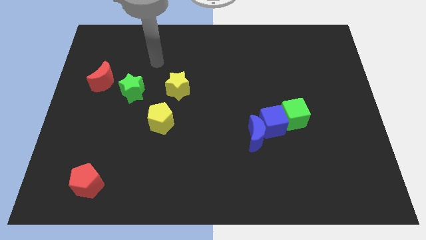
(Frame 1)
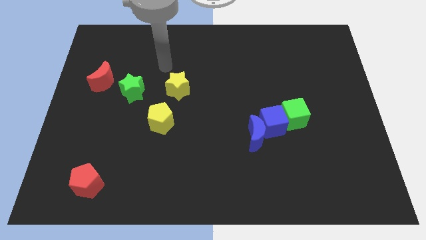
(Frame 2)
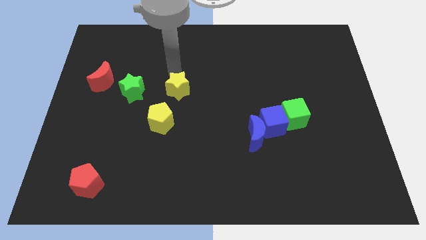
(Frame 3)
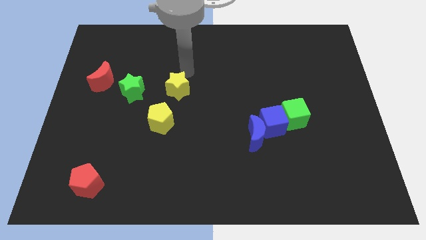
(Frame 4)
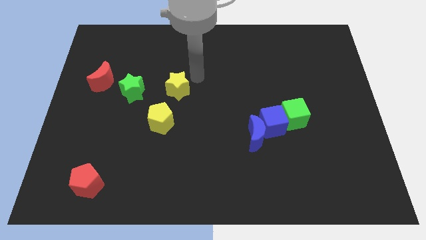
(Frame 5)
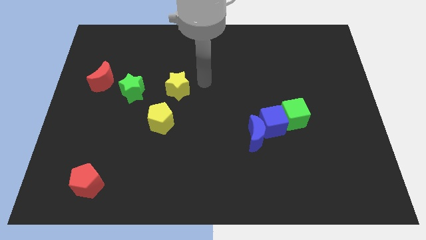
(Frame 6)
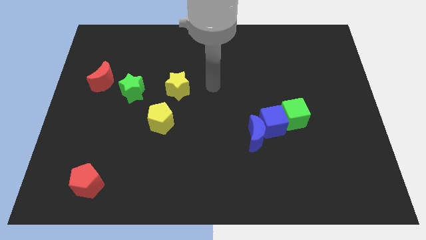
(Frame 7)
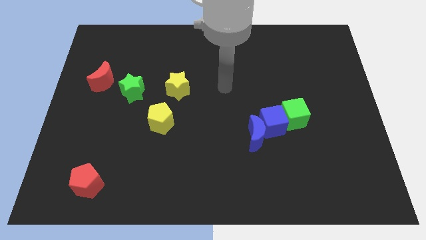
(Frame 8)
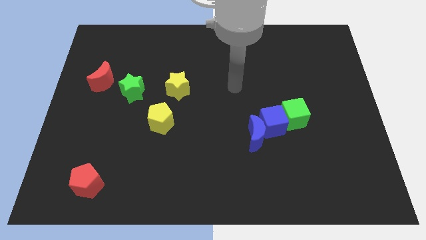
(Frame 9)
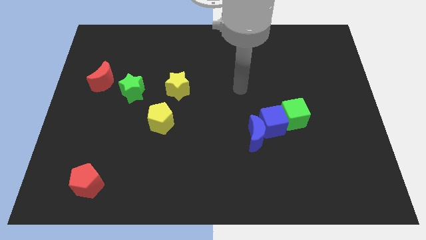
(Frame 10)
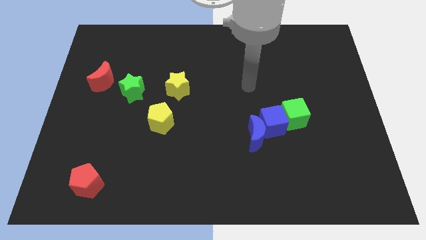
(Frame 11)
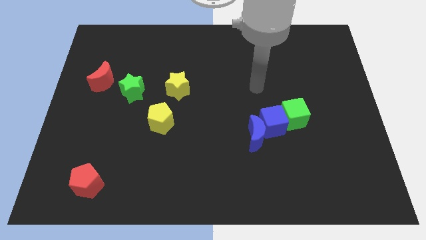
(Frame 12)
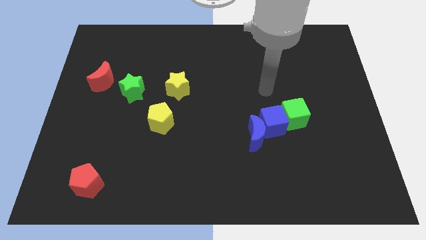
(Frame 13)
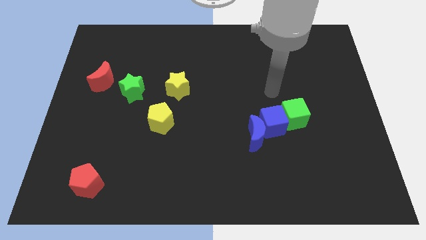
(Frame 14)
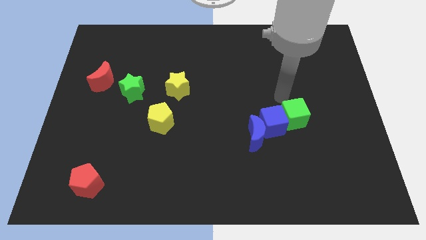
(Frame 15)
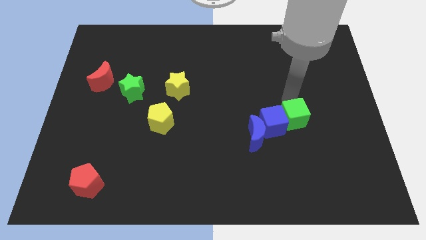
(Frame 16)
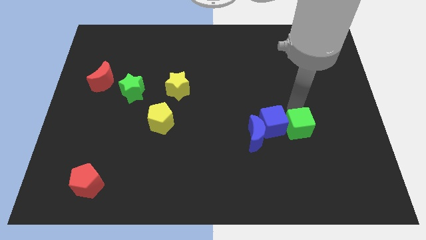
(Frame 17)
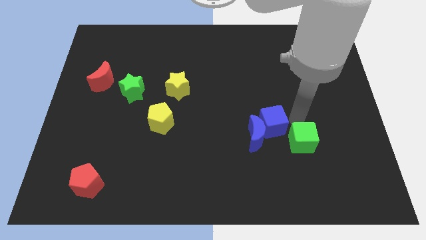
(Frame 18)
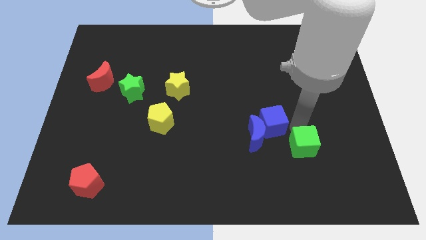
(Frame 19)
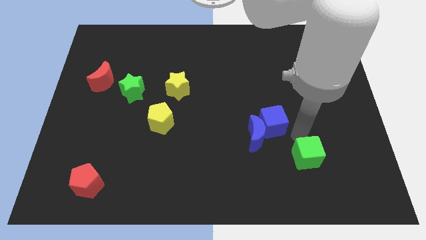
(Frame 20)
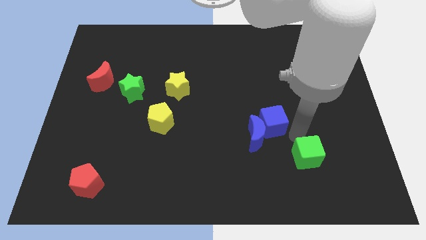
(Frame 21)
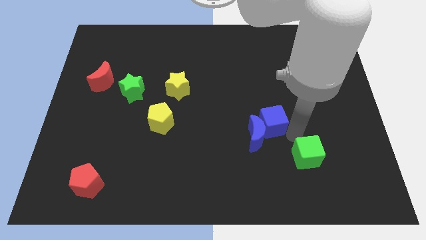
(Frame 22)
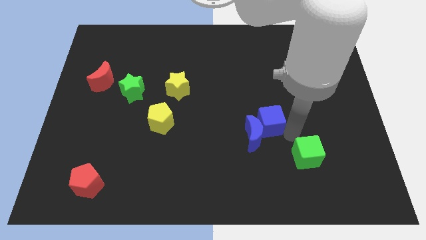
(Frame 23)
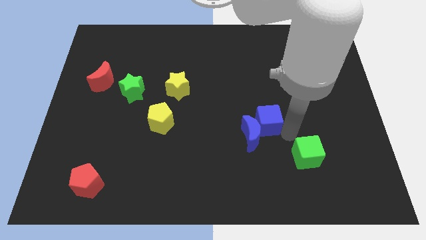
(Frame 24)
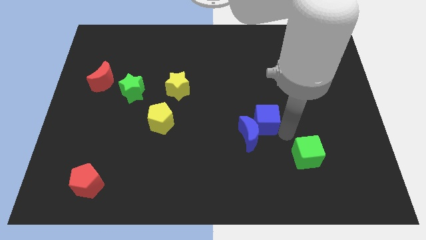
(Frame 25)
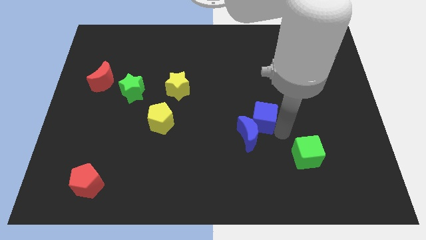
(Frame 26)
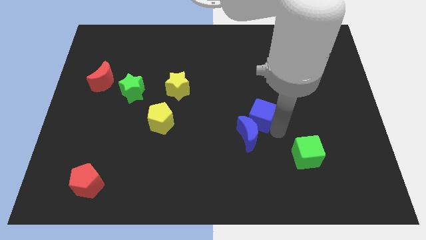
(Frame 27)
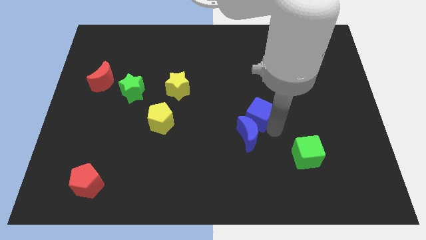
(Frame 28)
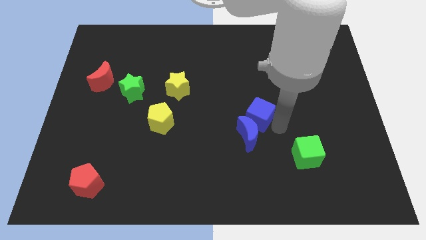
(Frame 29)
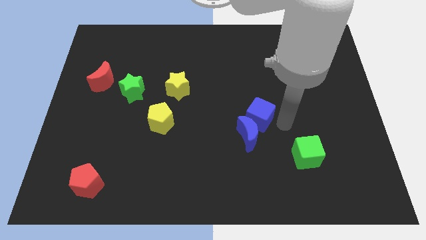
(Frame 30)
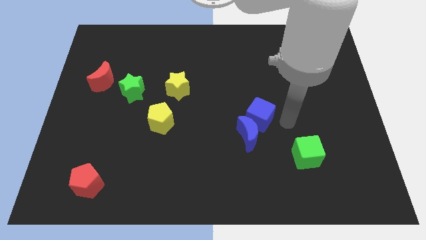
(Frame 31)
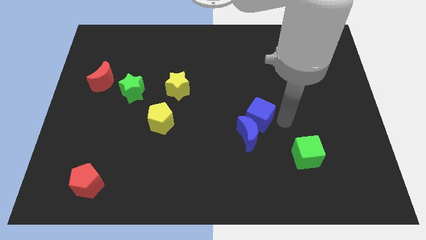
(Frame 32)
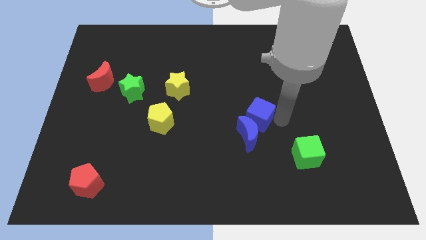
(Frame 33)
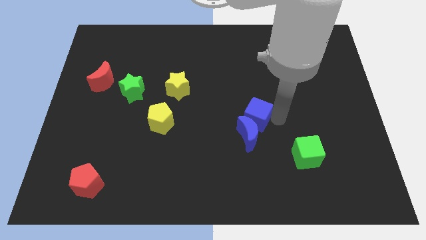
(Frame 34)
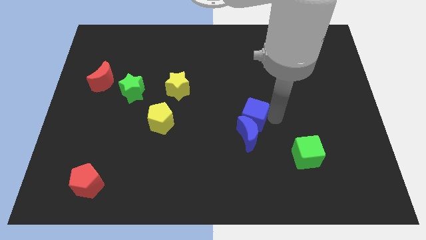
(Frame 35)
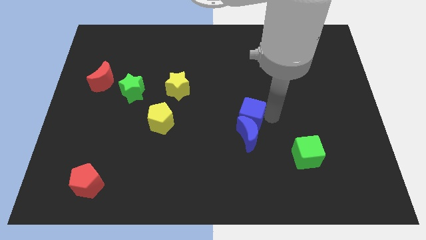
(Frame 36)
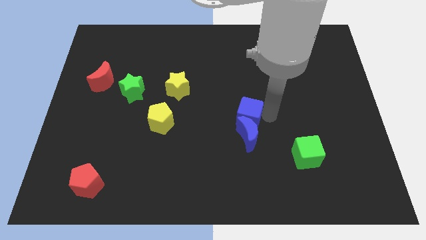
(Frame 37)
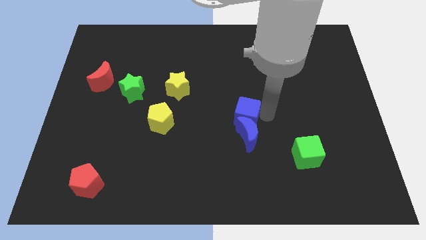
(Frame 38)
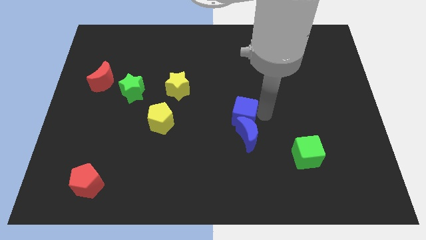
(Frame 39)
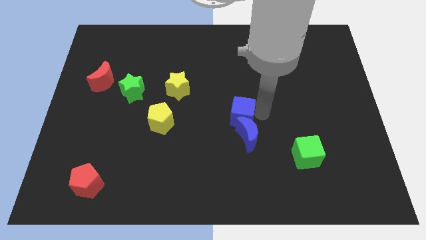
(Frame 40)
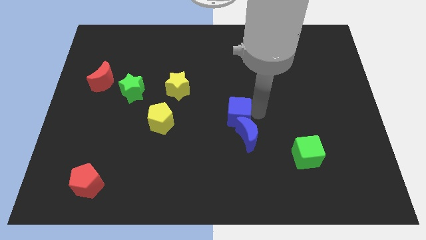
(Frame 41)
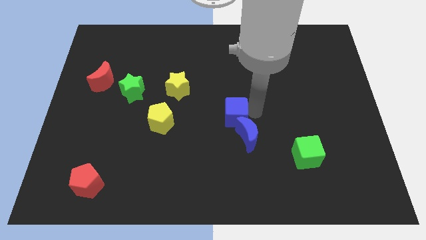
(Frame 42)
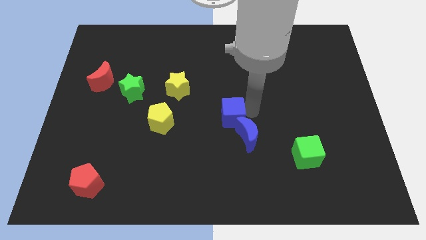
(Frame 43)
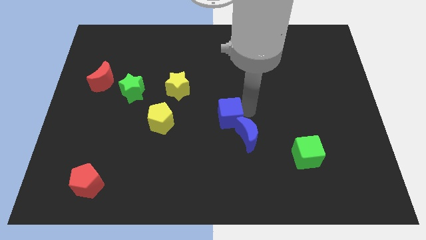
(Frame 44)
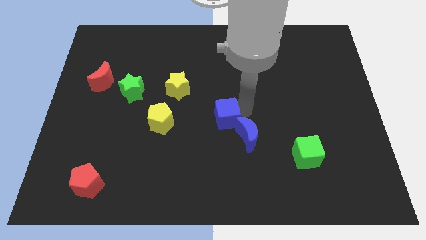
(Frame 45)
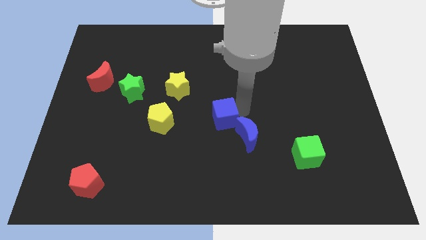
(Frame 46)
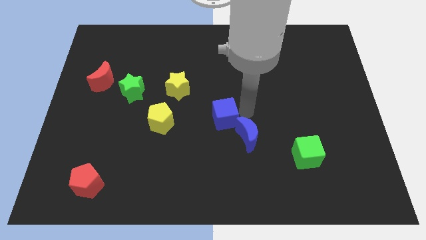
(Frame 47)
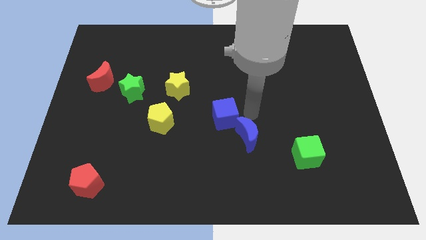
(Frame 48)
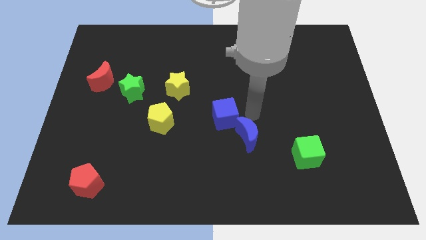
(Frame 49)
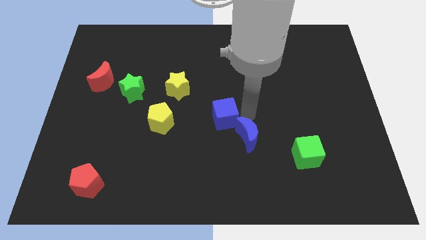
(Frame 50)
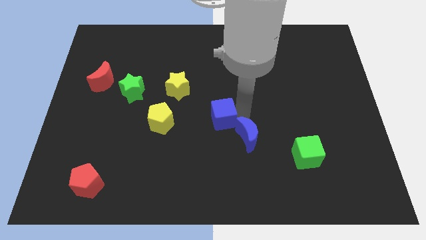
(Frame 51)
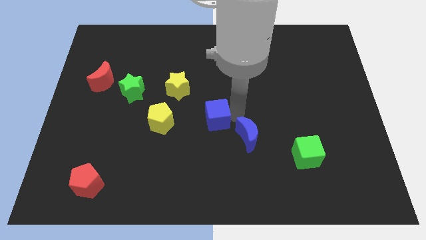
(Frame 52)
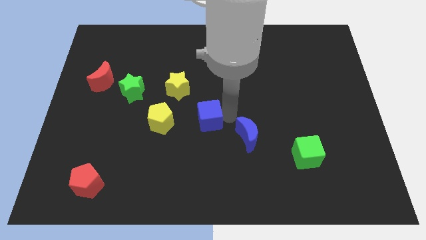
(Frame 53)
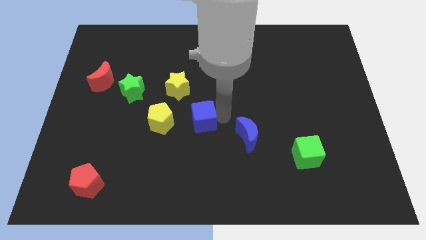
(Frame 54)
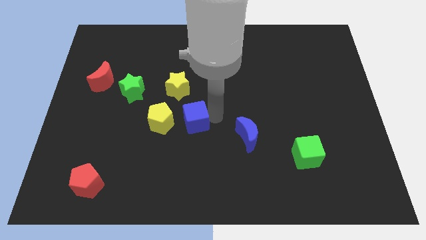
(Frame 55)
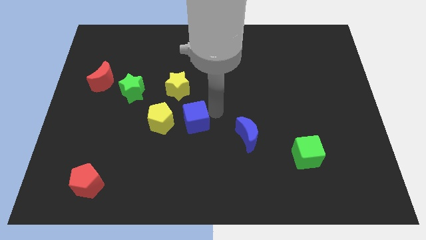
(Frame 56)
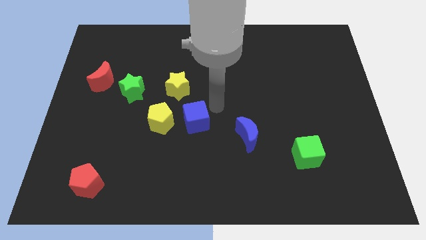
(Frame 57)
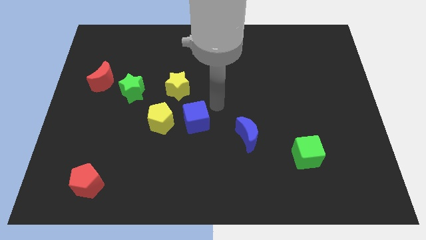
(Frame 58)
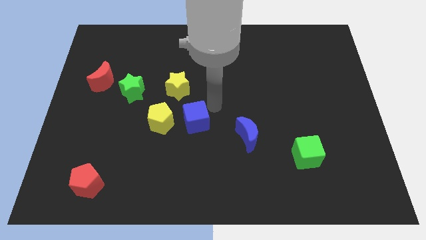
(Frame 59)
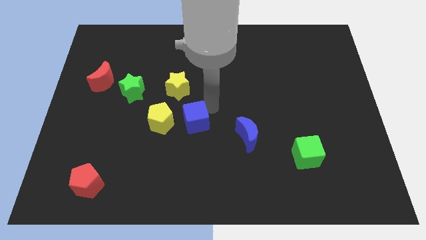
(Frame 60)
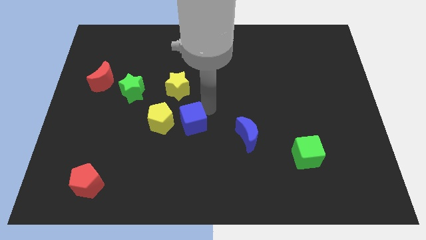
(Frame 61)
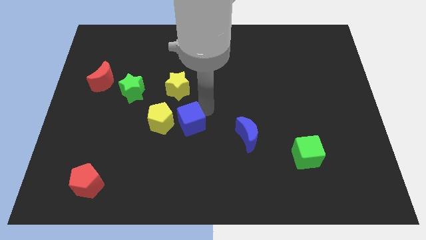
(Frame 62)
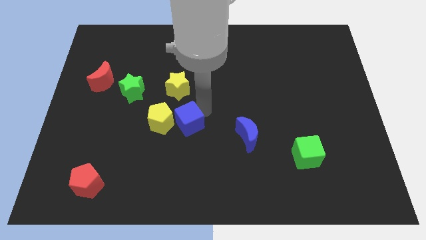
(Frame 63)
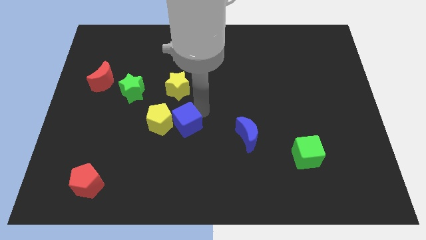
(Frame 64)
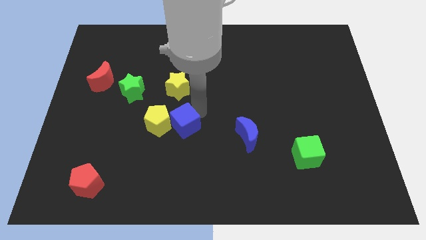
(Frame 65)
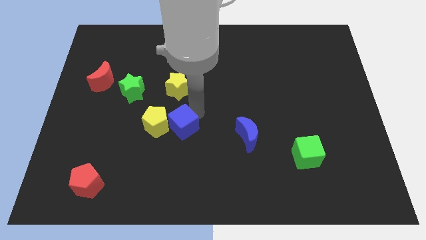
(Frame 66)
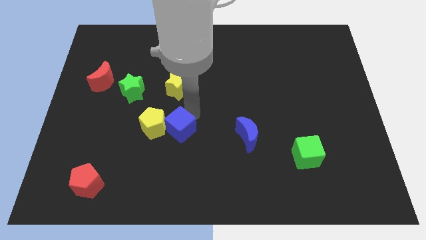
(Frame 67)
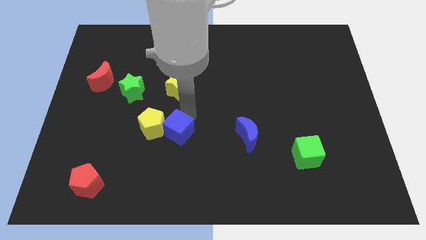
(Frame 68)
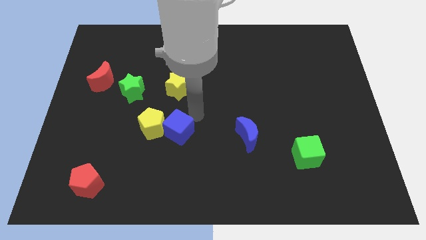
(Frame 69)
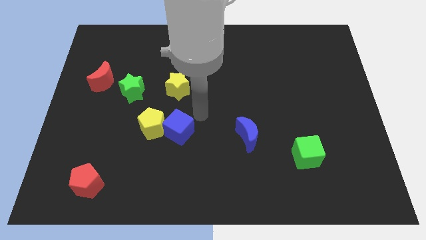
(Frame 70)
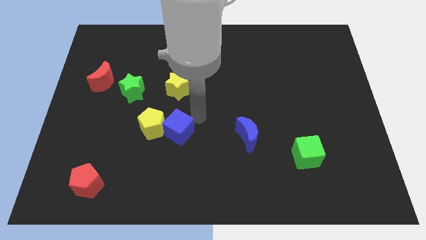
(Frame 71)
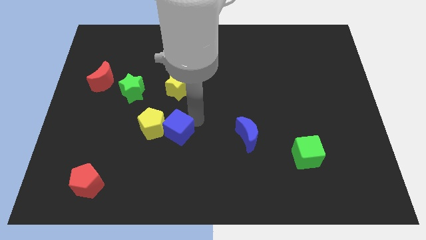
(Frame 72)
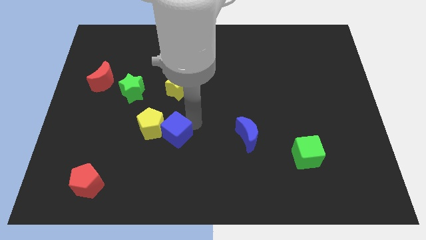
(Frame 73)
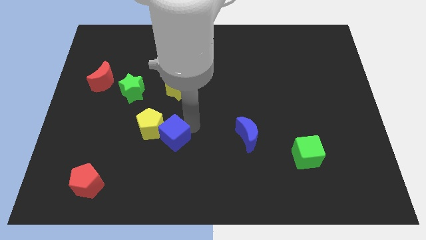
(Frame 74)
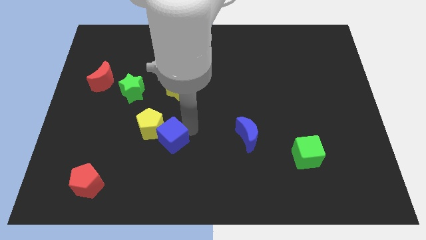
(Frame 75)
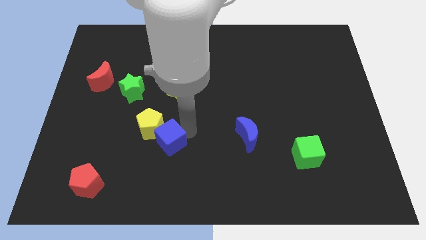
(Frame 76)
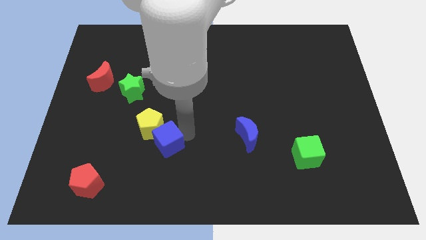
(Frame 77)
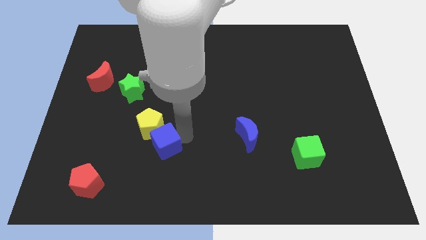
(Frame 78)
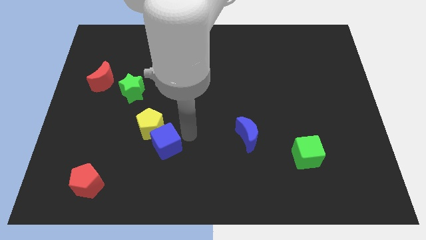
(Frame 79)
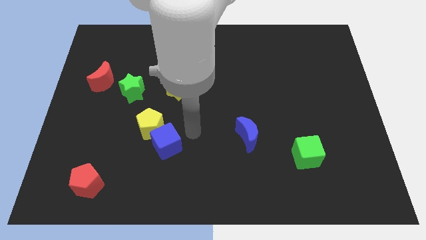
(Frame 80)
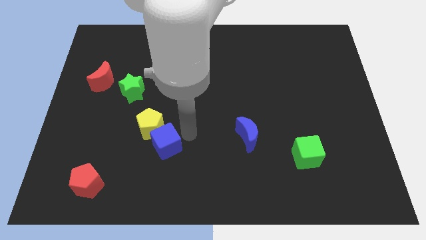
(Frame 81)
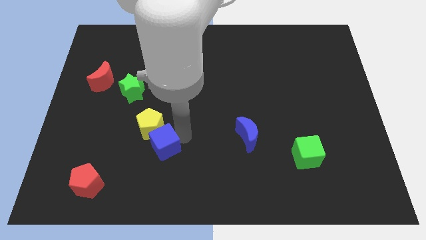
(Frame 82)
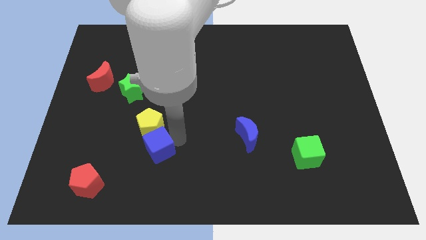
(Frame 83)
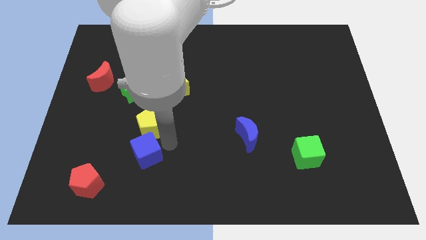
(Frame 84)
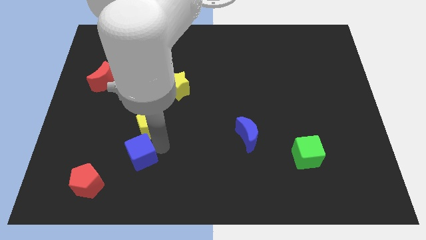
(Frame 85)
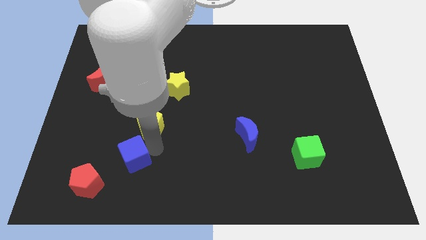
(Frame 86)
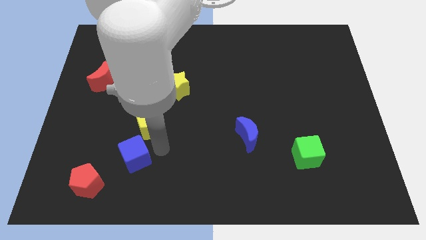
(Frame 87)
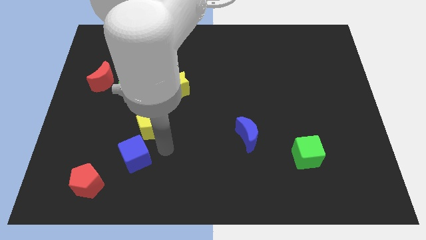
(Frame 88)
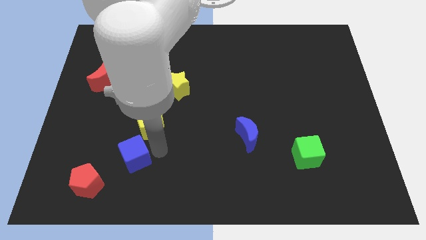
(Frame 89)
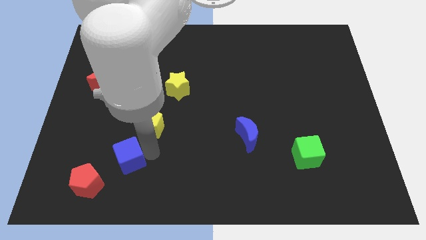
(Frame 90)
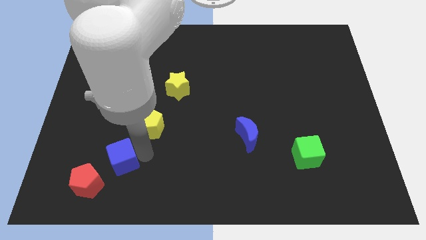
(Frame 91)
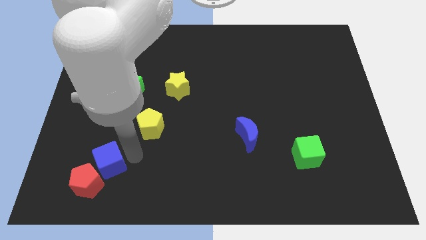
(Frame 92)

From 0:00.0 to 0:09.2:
put the blue cube next to the red pentagon
